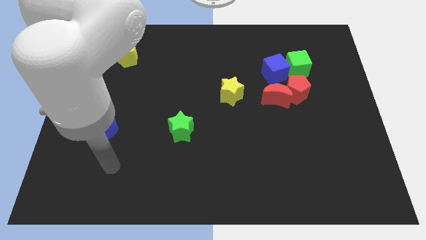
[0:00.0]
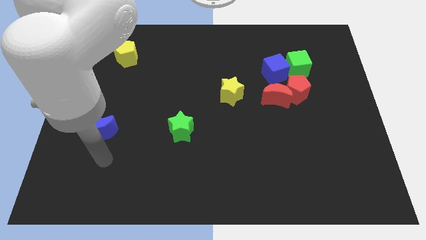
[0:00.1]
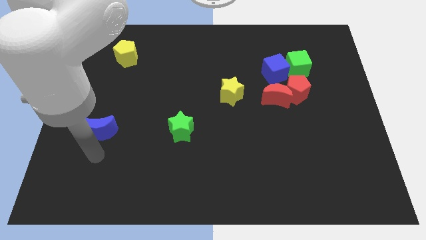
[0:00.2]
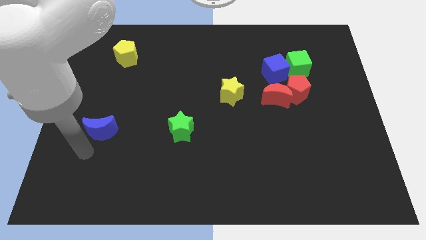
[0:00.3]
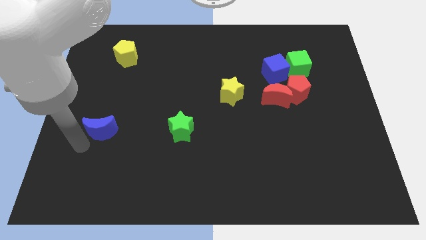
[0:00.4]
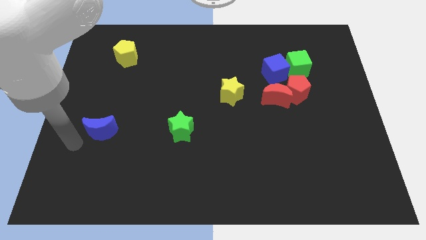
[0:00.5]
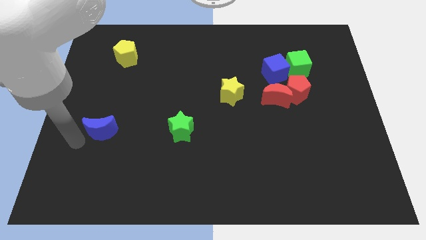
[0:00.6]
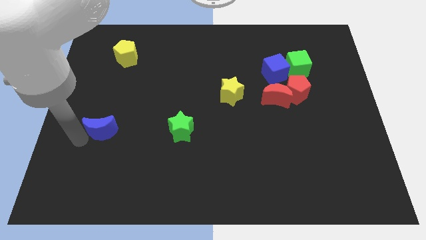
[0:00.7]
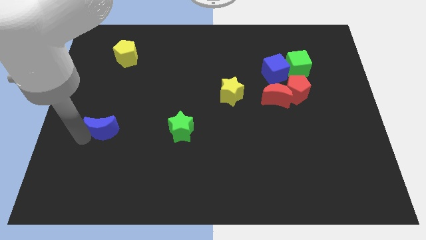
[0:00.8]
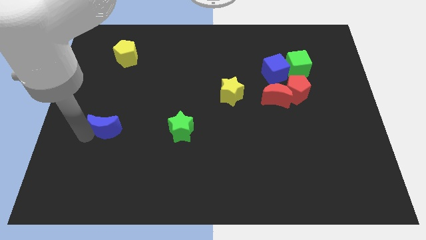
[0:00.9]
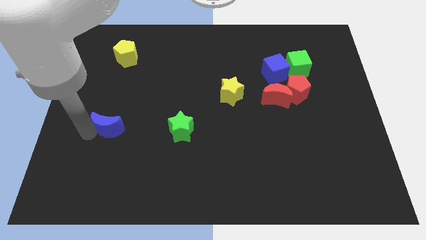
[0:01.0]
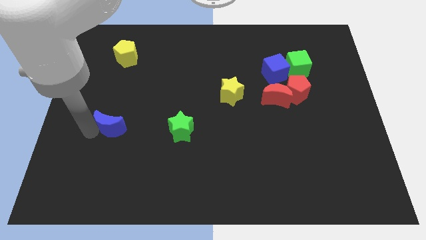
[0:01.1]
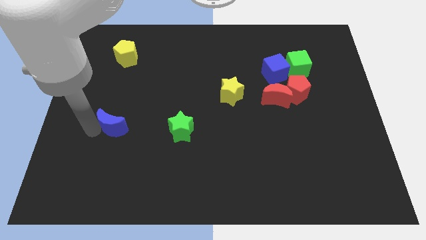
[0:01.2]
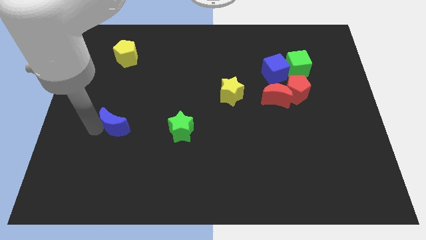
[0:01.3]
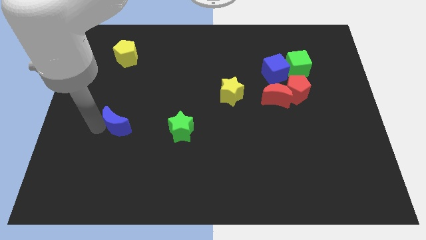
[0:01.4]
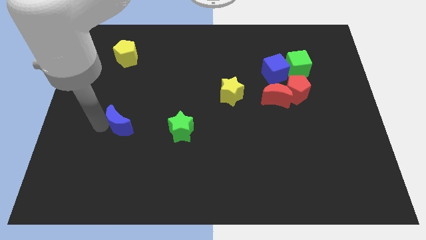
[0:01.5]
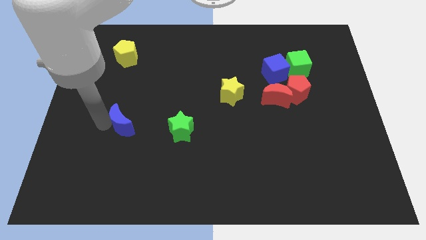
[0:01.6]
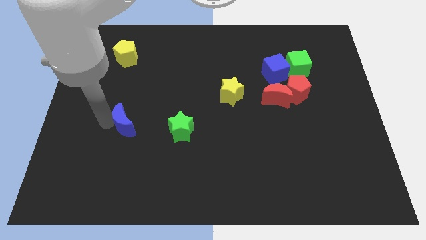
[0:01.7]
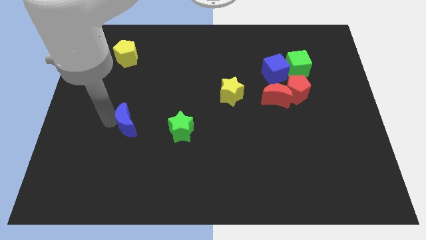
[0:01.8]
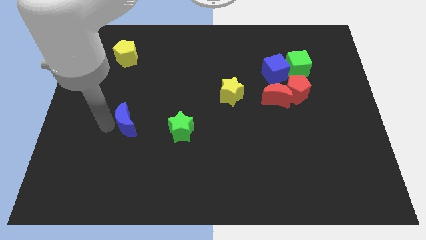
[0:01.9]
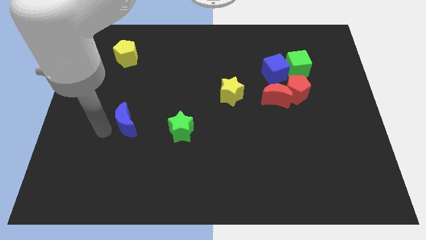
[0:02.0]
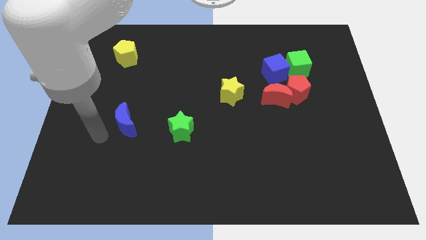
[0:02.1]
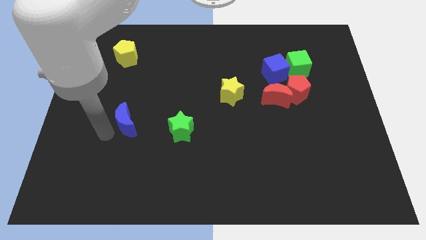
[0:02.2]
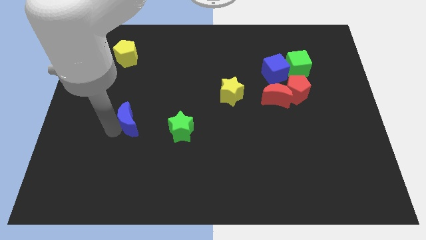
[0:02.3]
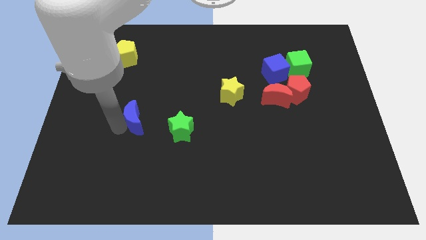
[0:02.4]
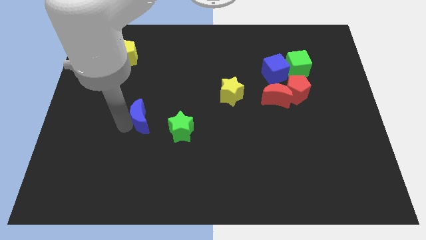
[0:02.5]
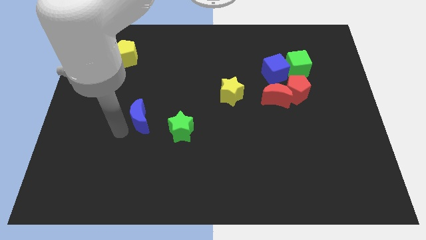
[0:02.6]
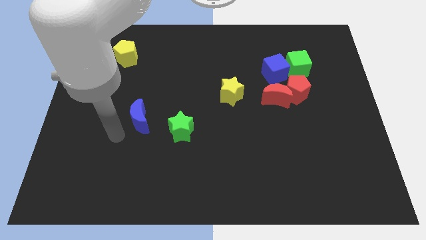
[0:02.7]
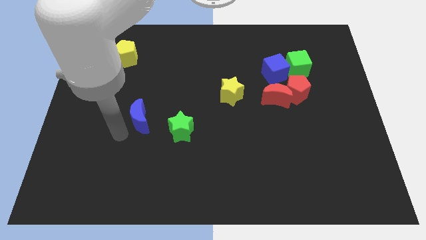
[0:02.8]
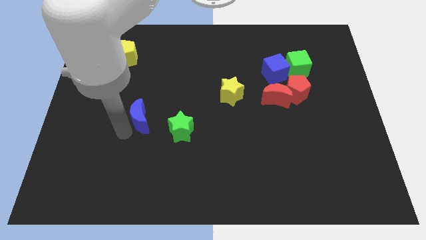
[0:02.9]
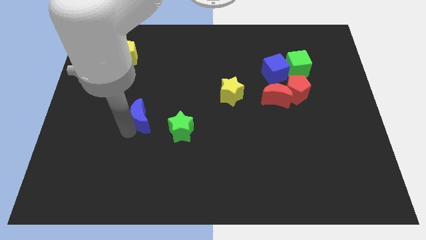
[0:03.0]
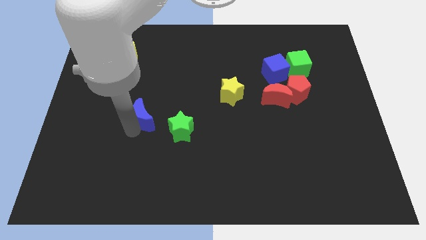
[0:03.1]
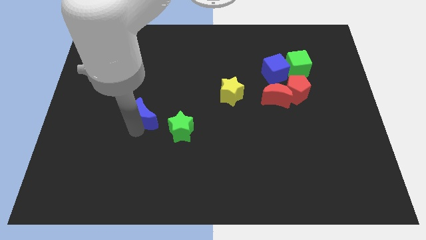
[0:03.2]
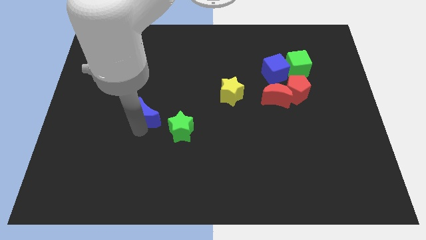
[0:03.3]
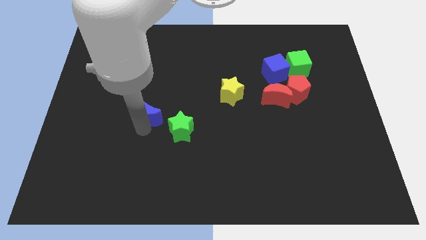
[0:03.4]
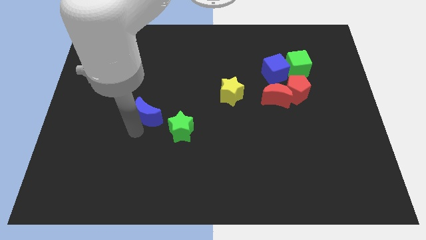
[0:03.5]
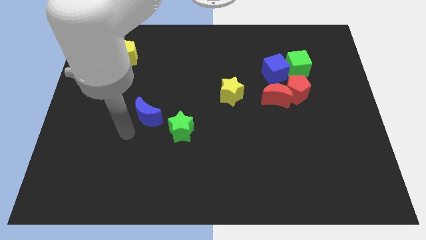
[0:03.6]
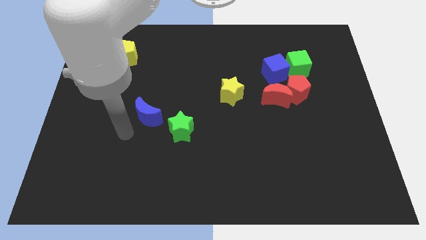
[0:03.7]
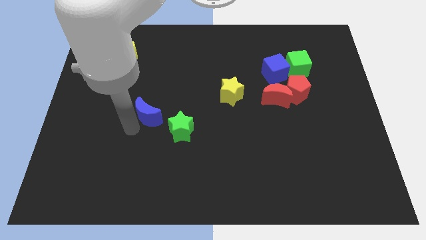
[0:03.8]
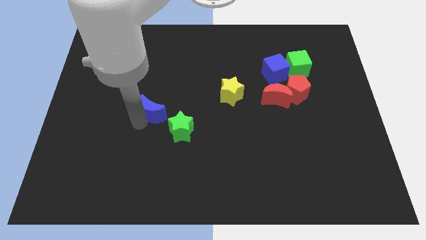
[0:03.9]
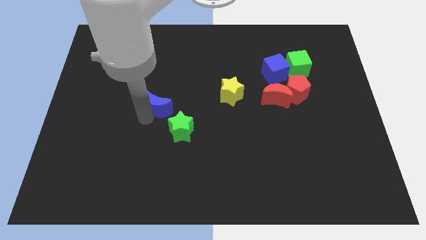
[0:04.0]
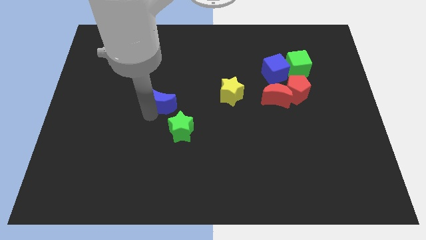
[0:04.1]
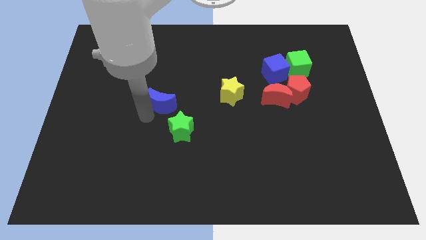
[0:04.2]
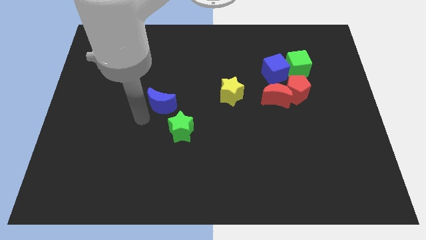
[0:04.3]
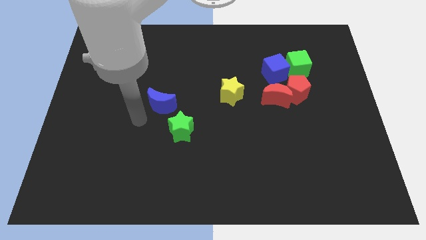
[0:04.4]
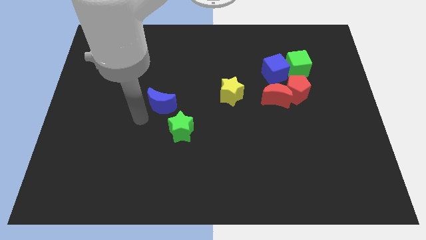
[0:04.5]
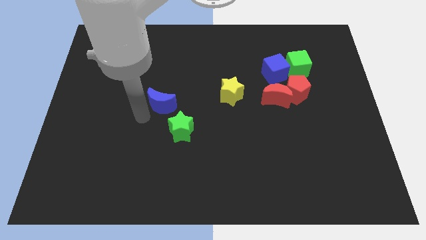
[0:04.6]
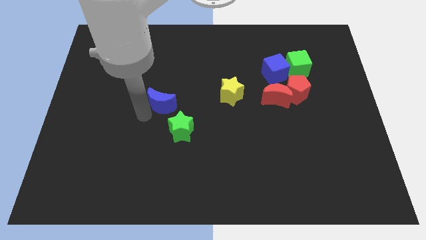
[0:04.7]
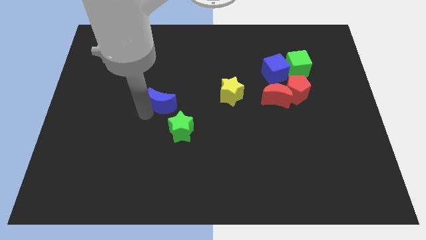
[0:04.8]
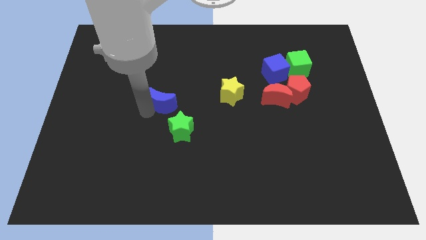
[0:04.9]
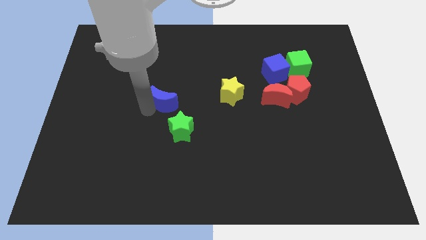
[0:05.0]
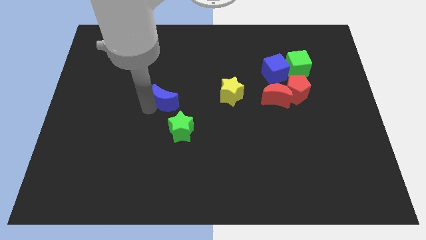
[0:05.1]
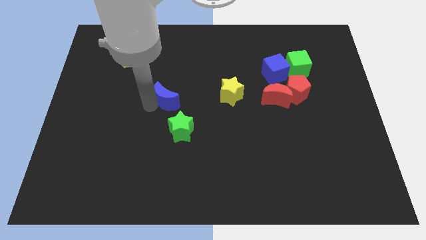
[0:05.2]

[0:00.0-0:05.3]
push the blue moon left of the yellow star

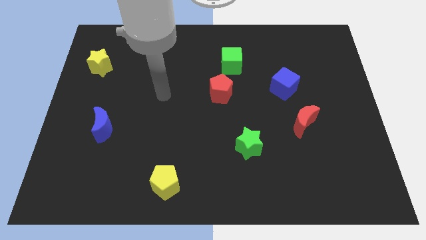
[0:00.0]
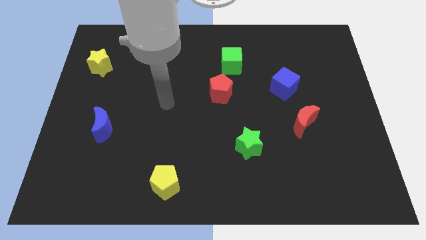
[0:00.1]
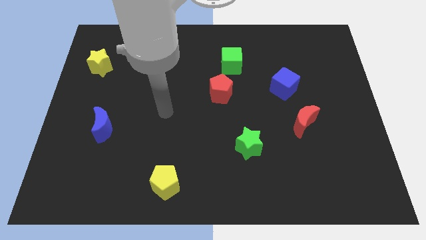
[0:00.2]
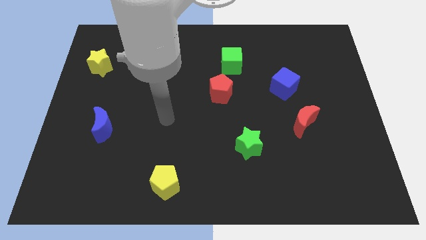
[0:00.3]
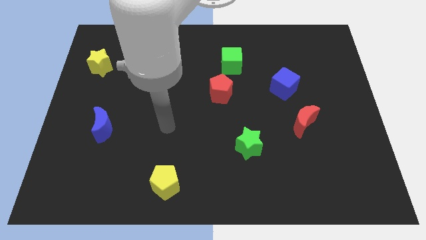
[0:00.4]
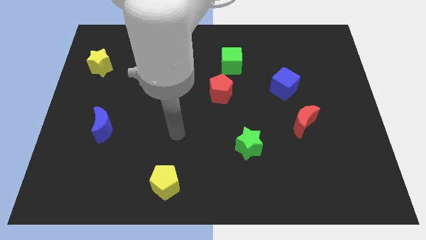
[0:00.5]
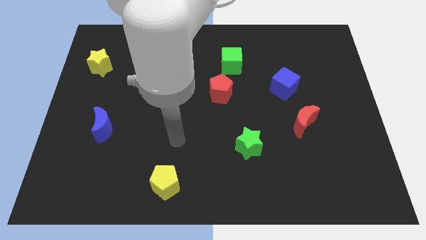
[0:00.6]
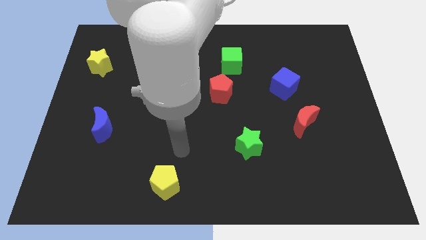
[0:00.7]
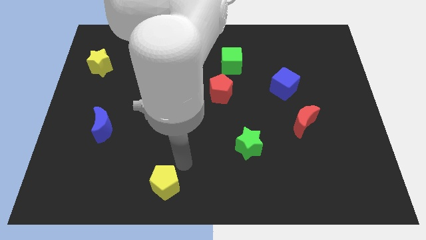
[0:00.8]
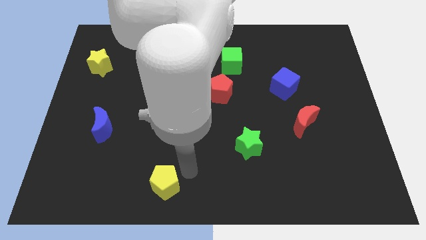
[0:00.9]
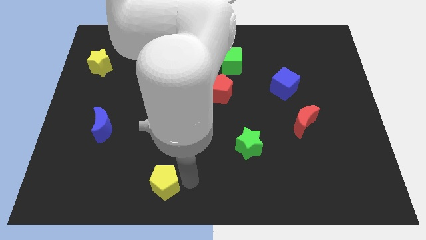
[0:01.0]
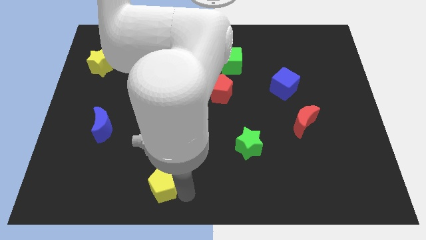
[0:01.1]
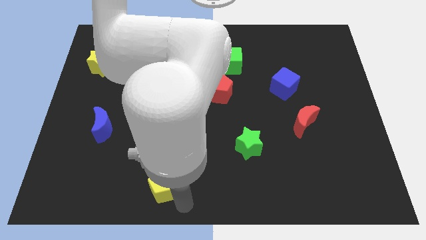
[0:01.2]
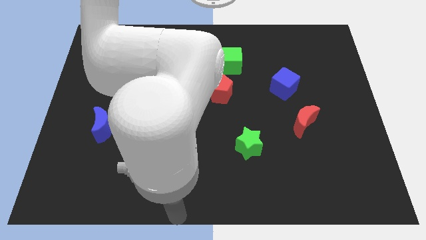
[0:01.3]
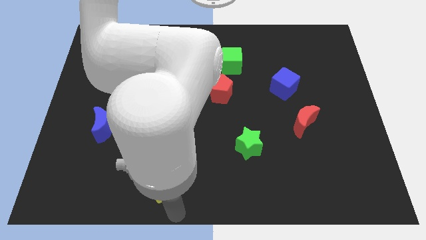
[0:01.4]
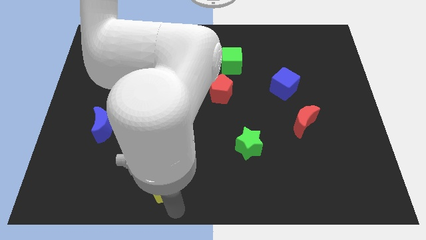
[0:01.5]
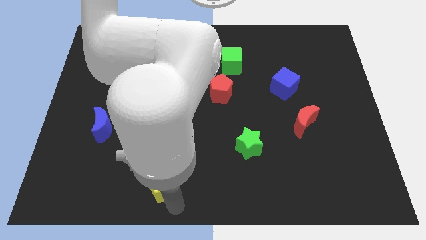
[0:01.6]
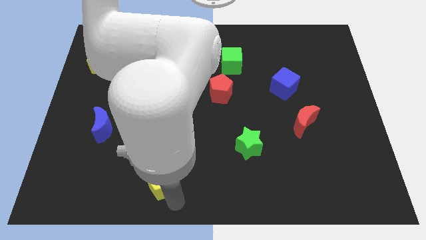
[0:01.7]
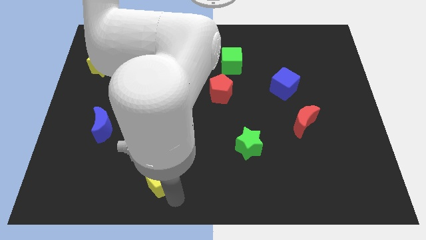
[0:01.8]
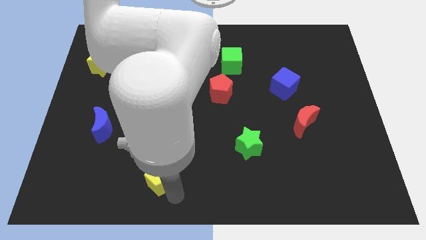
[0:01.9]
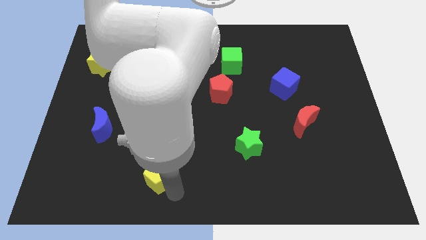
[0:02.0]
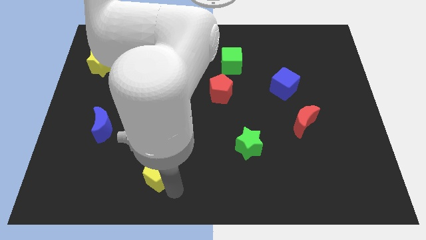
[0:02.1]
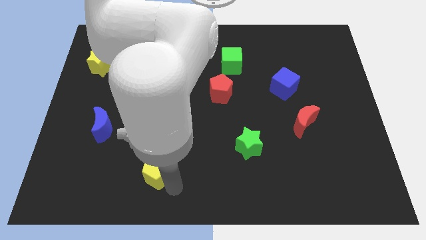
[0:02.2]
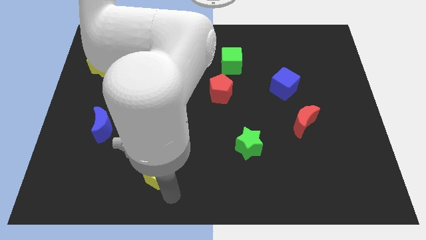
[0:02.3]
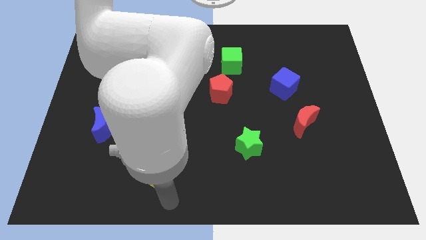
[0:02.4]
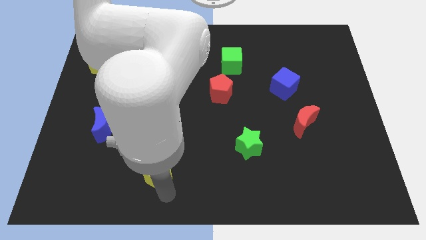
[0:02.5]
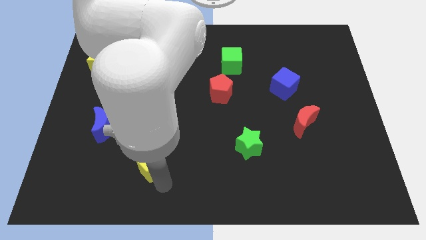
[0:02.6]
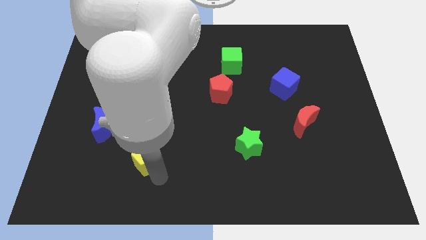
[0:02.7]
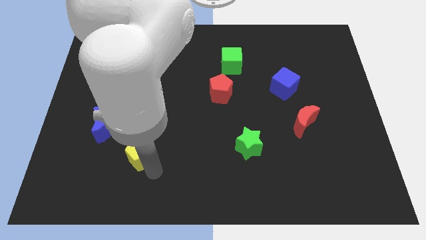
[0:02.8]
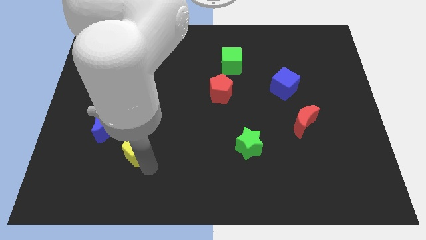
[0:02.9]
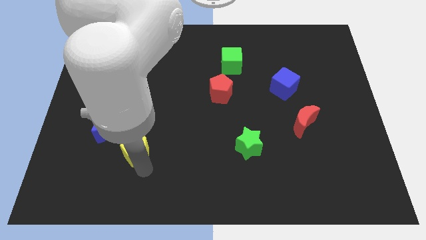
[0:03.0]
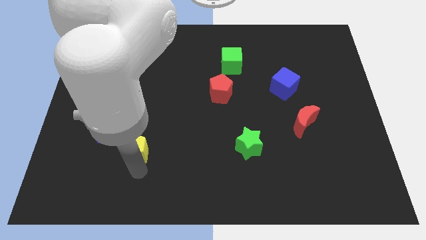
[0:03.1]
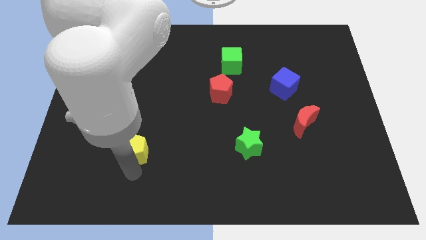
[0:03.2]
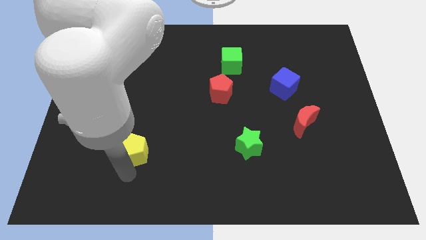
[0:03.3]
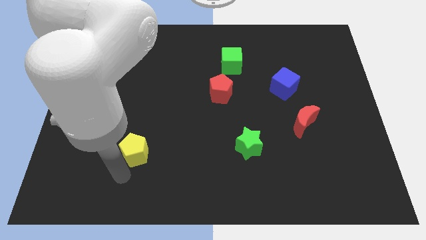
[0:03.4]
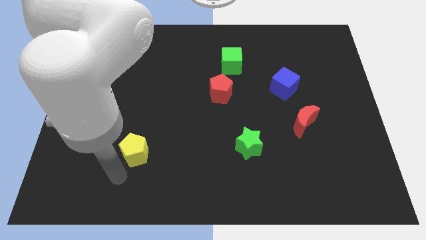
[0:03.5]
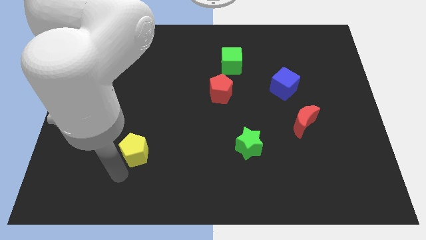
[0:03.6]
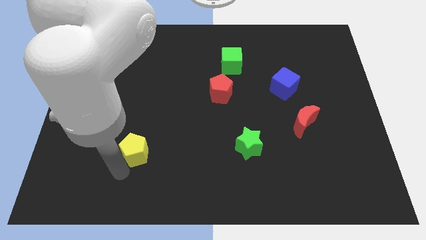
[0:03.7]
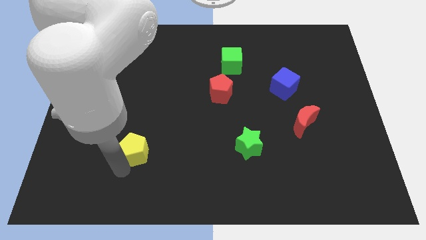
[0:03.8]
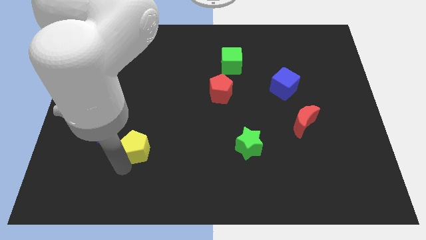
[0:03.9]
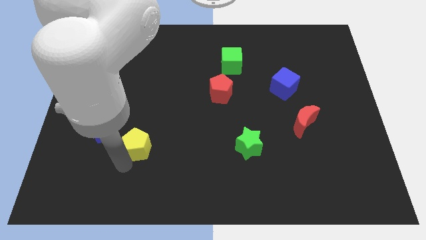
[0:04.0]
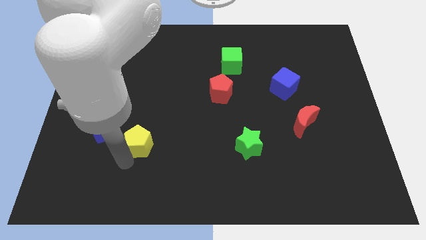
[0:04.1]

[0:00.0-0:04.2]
put the yellow pentagon right of the blue moon
